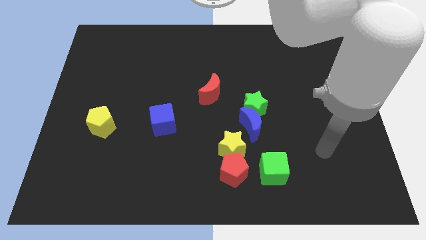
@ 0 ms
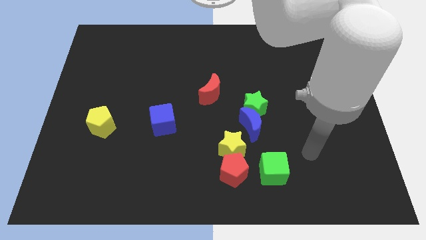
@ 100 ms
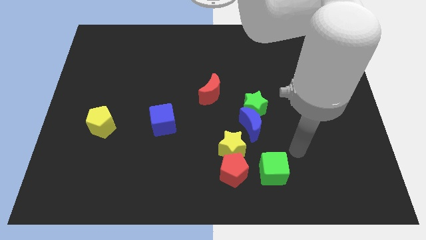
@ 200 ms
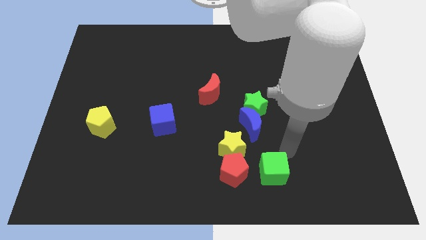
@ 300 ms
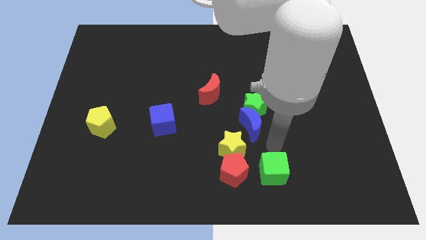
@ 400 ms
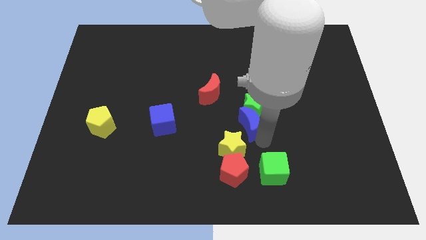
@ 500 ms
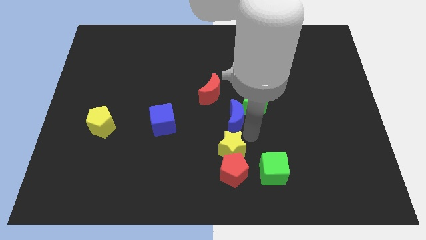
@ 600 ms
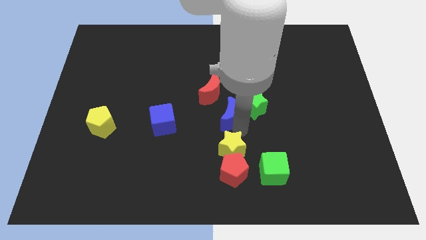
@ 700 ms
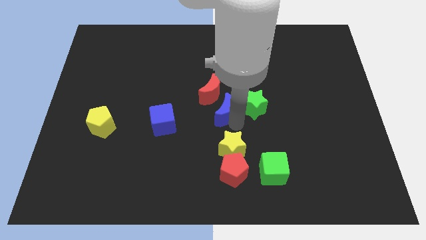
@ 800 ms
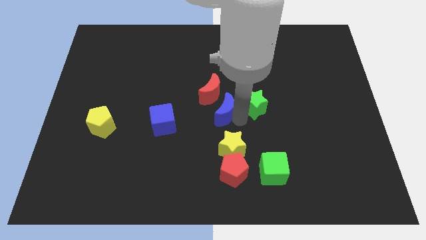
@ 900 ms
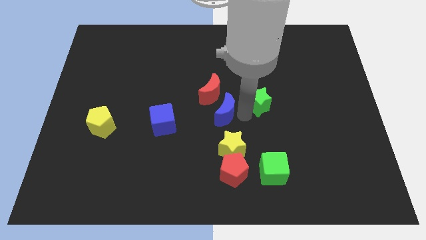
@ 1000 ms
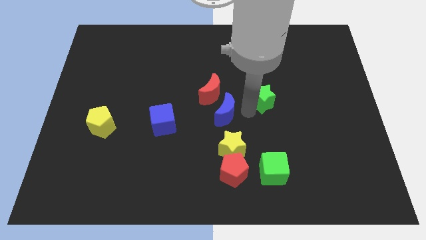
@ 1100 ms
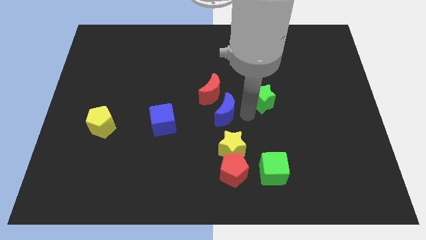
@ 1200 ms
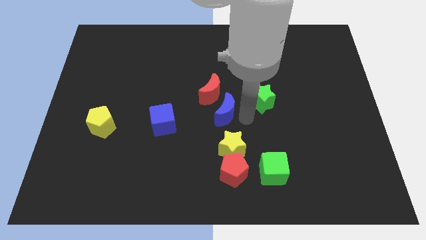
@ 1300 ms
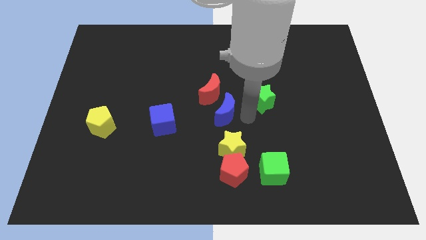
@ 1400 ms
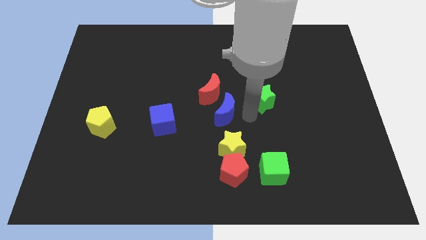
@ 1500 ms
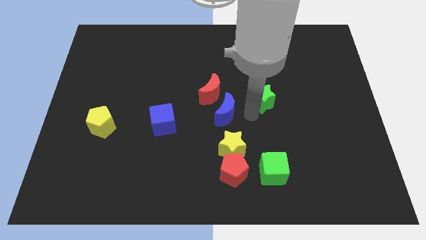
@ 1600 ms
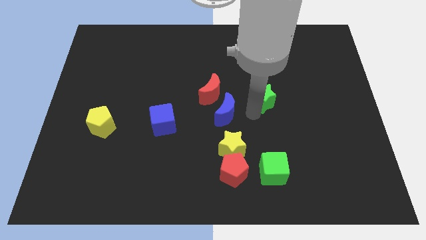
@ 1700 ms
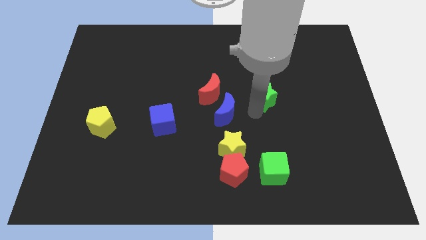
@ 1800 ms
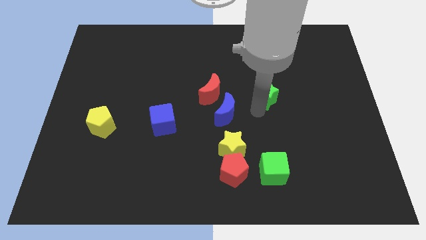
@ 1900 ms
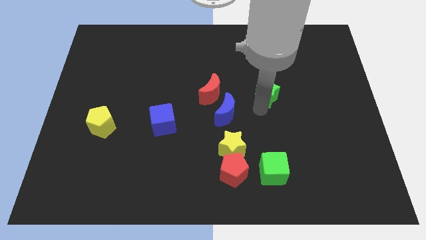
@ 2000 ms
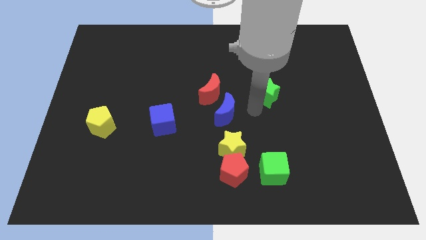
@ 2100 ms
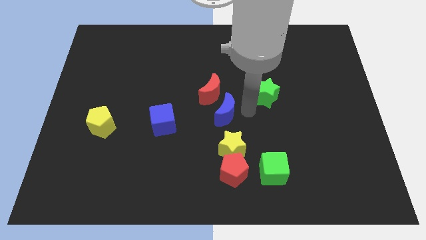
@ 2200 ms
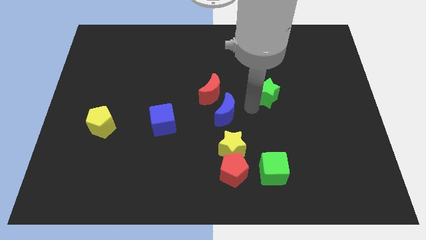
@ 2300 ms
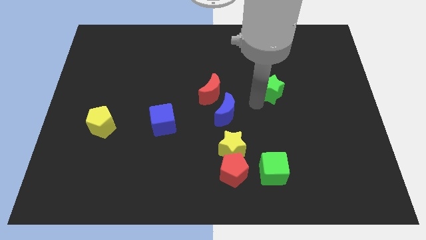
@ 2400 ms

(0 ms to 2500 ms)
slightly move the green star upwards and right diagonally

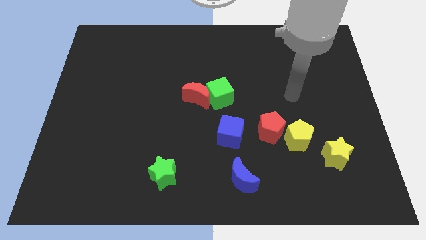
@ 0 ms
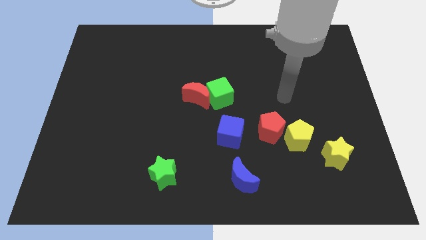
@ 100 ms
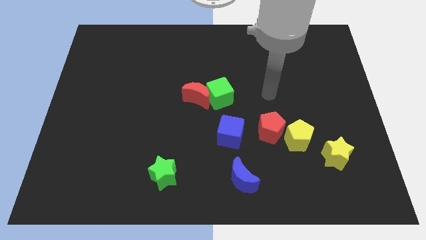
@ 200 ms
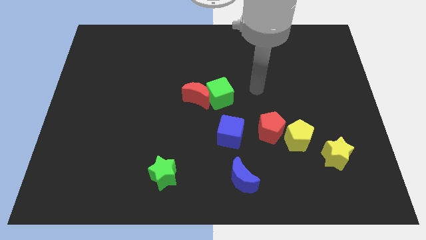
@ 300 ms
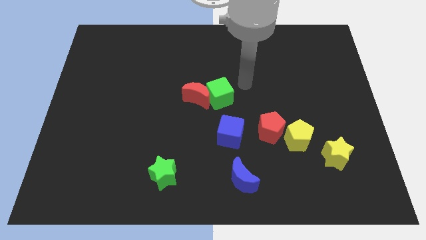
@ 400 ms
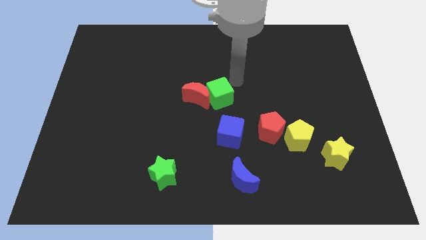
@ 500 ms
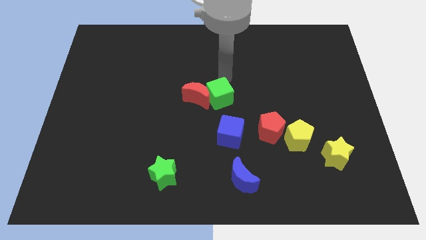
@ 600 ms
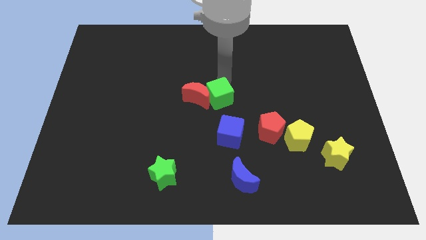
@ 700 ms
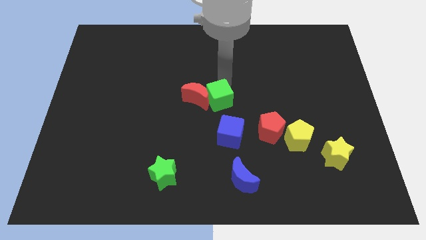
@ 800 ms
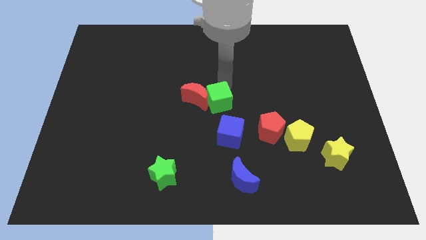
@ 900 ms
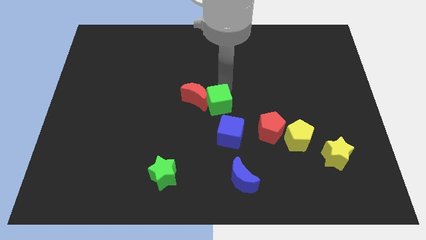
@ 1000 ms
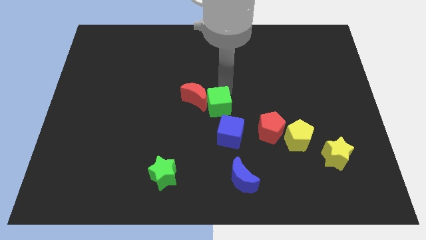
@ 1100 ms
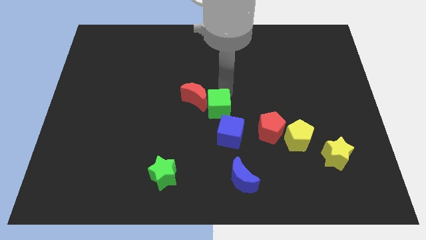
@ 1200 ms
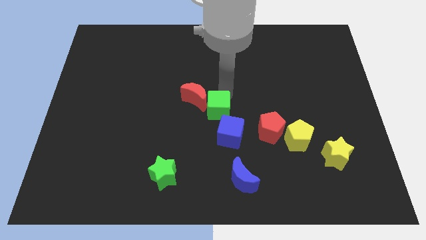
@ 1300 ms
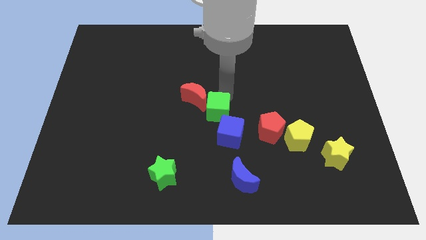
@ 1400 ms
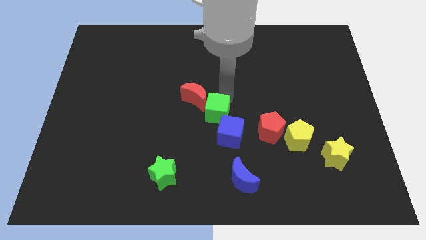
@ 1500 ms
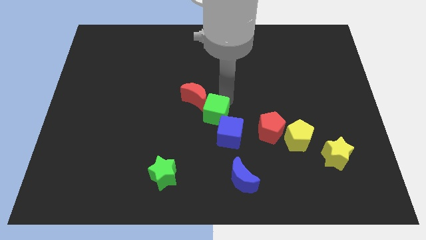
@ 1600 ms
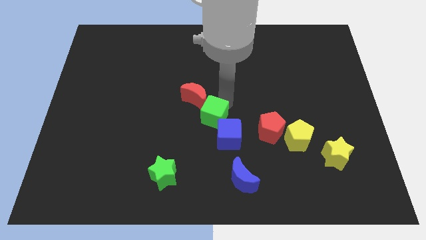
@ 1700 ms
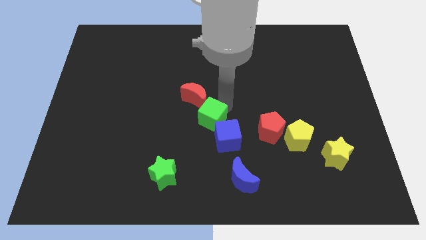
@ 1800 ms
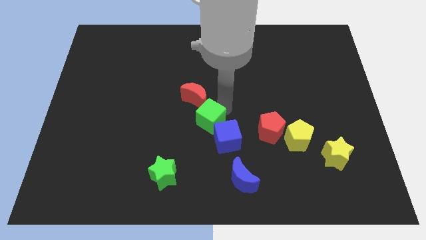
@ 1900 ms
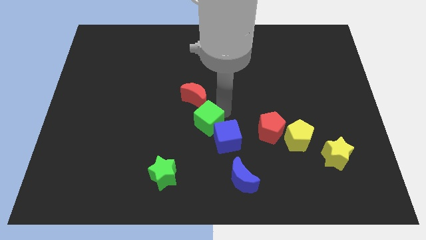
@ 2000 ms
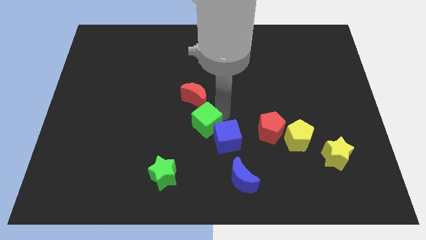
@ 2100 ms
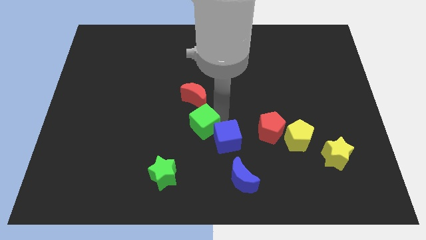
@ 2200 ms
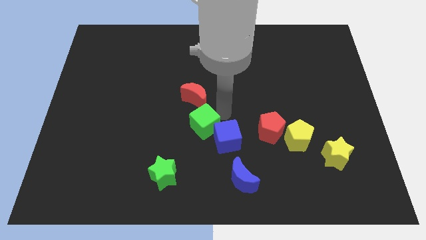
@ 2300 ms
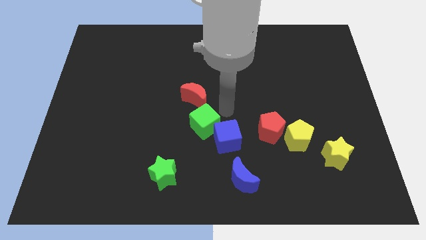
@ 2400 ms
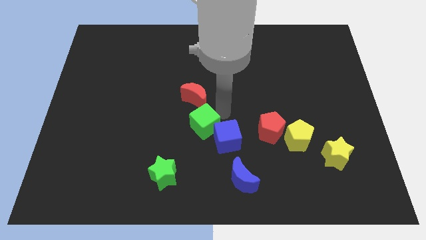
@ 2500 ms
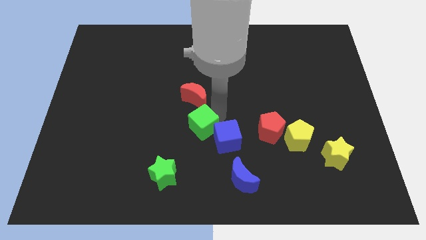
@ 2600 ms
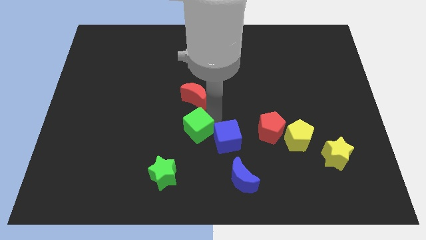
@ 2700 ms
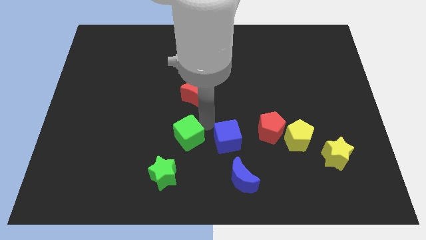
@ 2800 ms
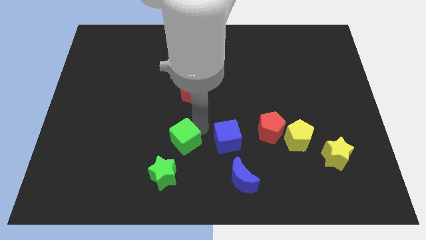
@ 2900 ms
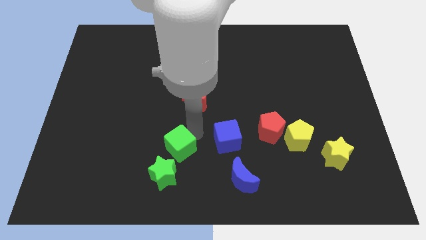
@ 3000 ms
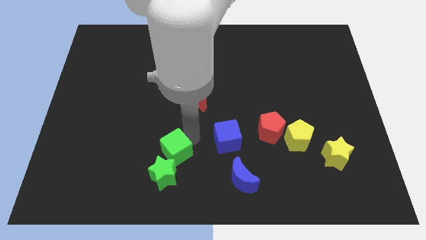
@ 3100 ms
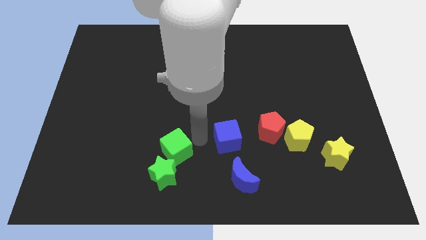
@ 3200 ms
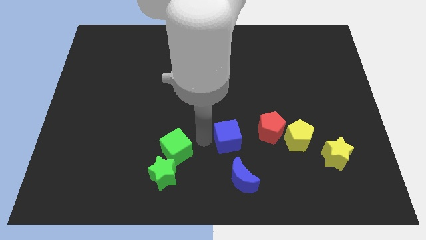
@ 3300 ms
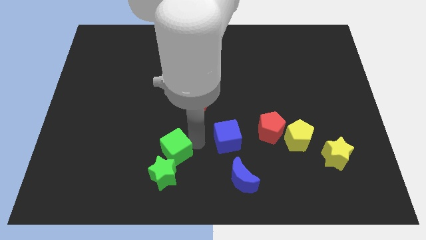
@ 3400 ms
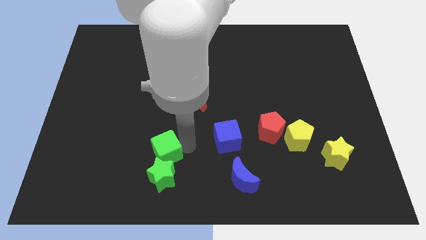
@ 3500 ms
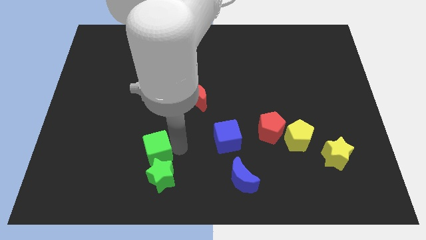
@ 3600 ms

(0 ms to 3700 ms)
slide the green cube down and then left

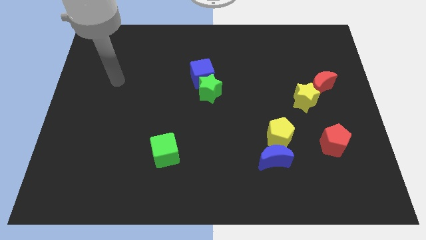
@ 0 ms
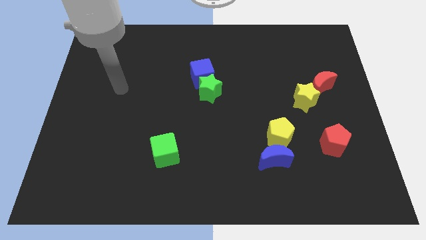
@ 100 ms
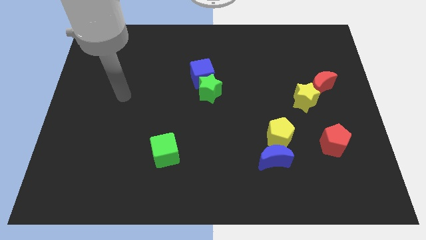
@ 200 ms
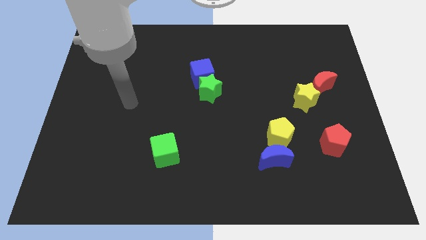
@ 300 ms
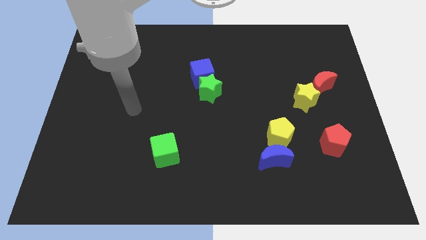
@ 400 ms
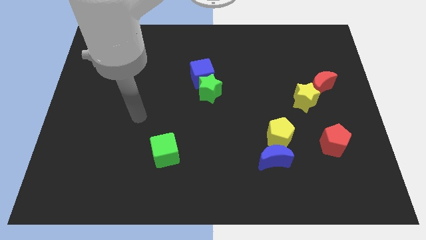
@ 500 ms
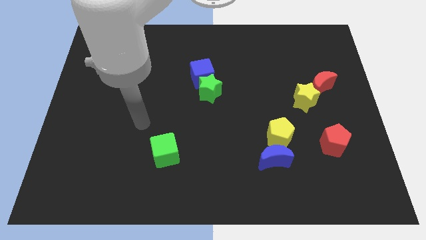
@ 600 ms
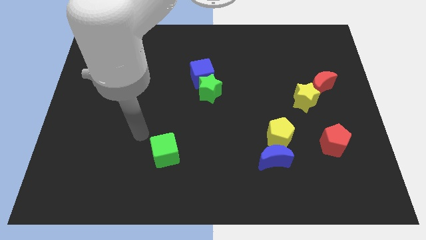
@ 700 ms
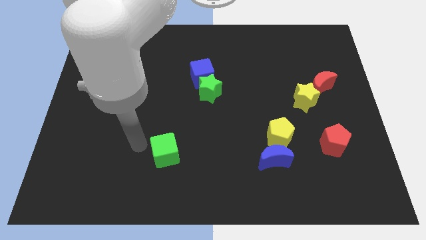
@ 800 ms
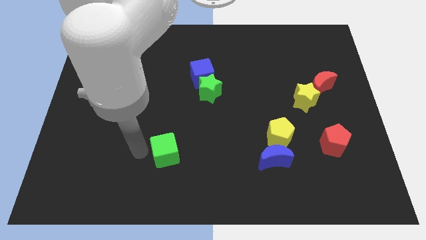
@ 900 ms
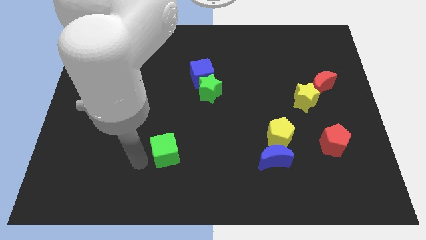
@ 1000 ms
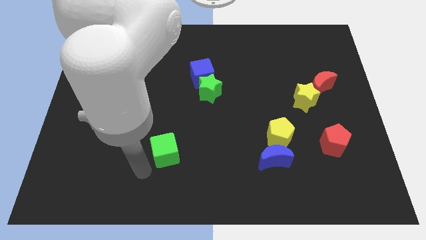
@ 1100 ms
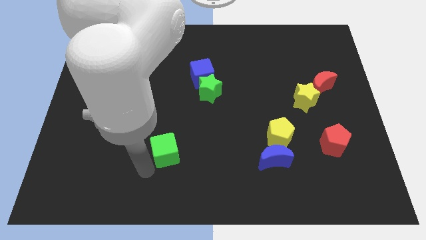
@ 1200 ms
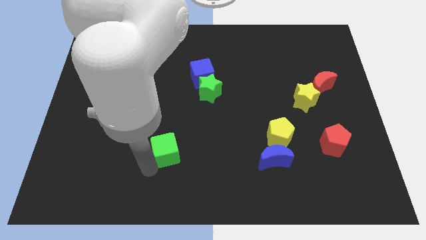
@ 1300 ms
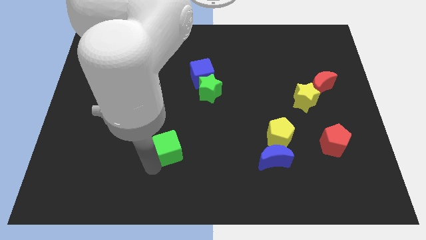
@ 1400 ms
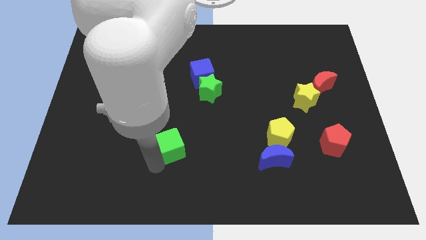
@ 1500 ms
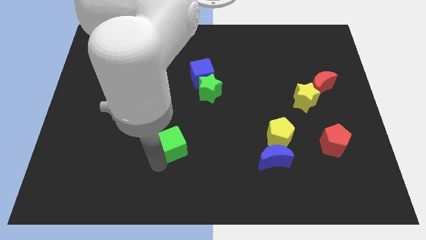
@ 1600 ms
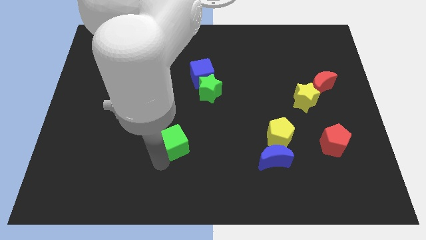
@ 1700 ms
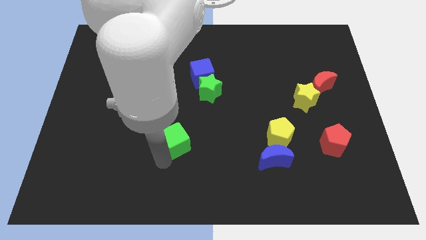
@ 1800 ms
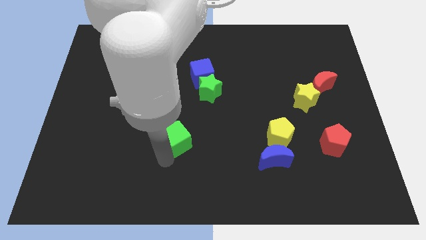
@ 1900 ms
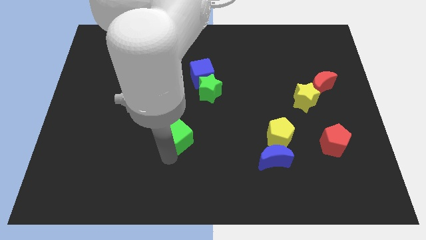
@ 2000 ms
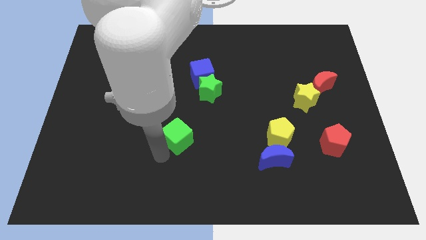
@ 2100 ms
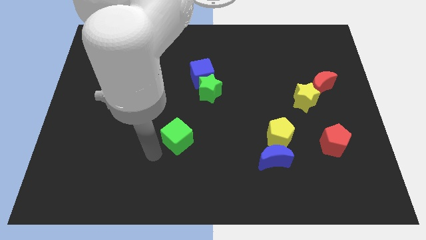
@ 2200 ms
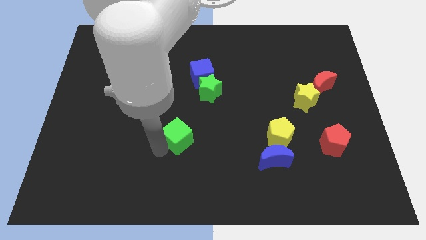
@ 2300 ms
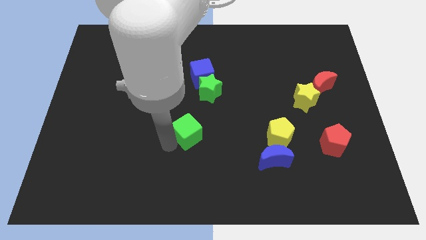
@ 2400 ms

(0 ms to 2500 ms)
slightly move the green cube upwards and right diagonally

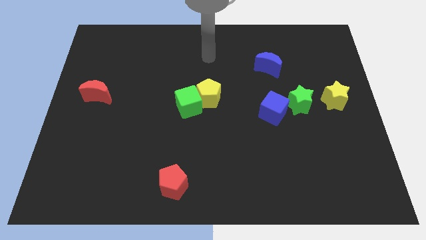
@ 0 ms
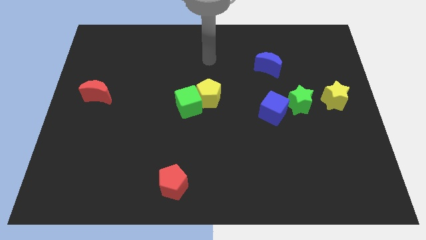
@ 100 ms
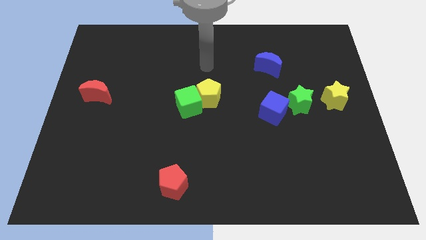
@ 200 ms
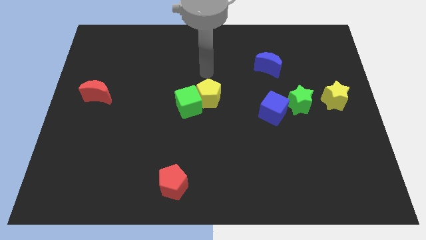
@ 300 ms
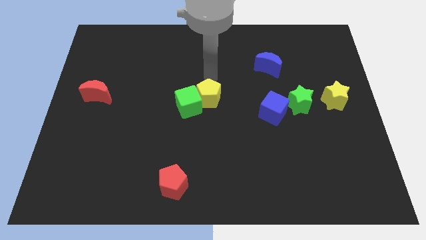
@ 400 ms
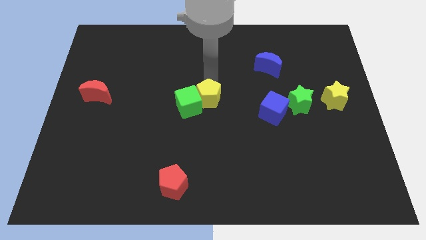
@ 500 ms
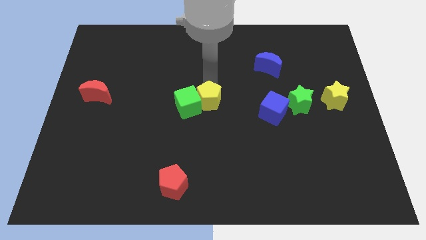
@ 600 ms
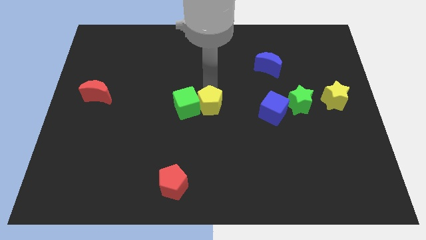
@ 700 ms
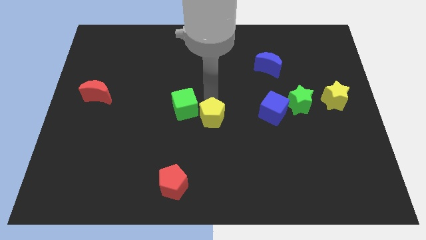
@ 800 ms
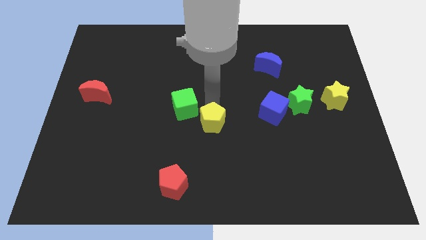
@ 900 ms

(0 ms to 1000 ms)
move the yellow pentagon a little bit down
